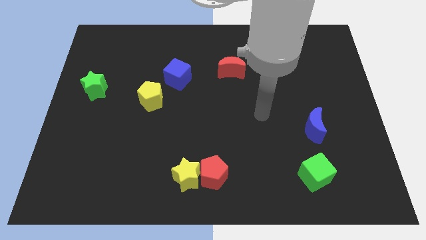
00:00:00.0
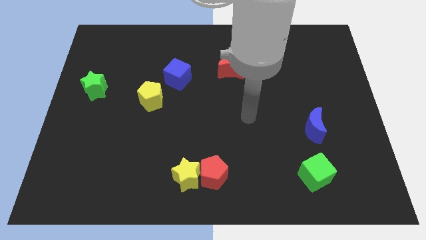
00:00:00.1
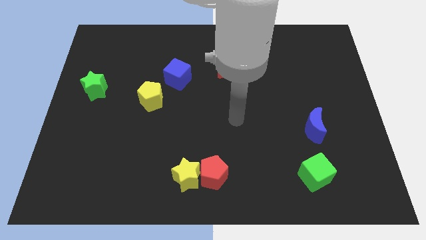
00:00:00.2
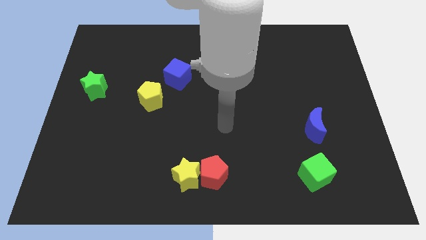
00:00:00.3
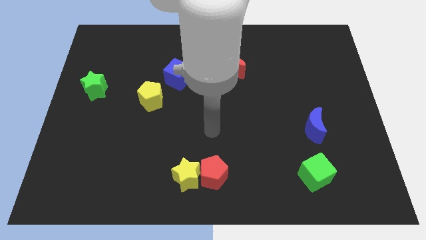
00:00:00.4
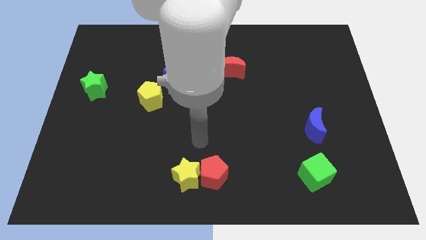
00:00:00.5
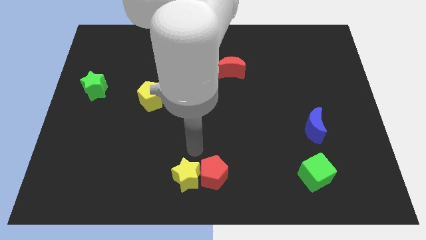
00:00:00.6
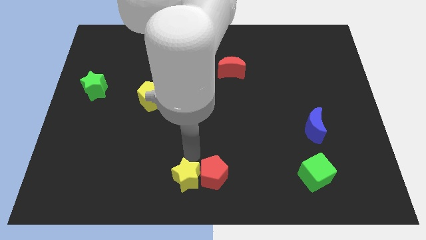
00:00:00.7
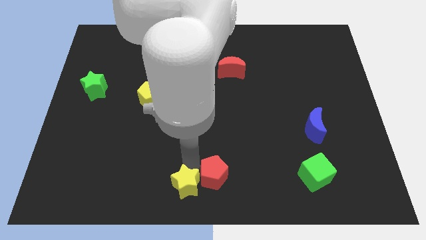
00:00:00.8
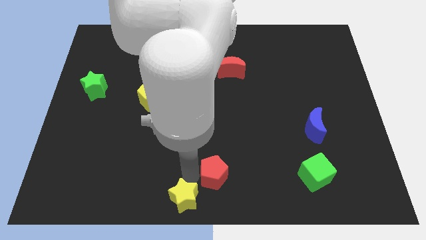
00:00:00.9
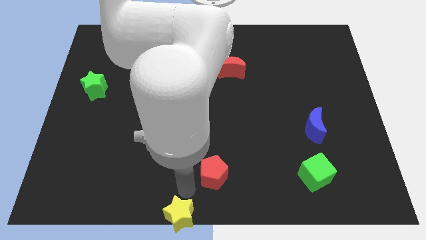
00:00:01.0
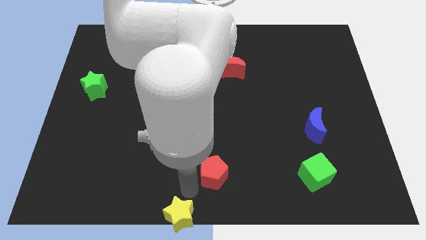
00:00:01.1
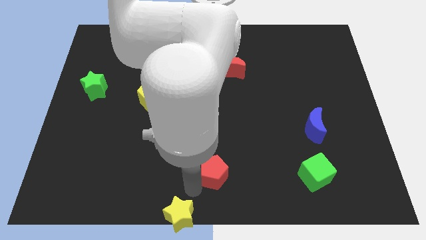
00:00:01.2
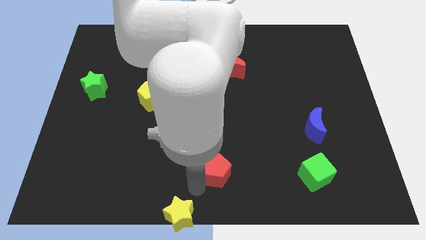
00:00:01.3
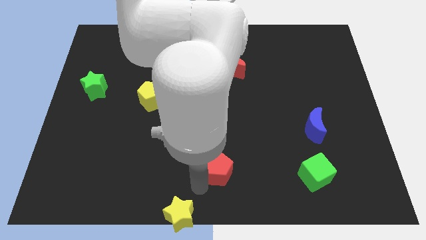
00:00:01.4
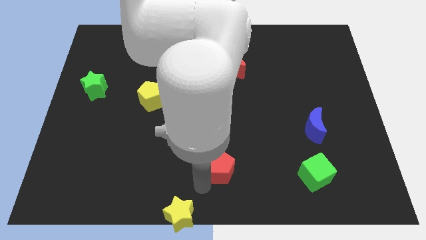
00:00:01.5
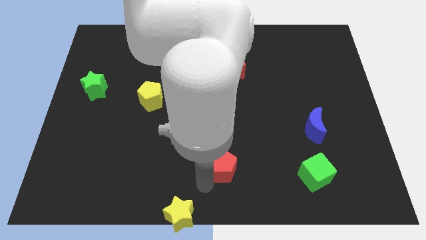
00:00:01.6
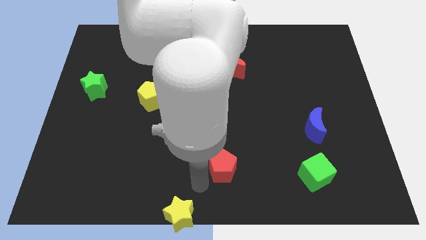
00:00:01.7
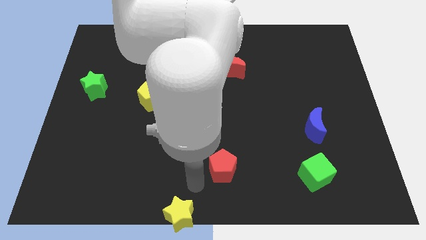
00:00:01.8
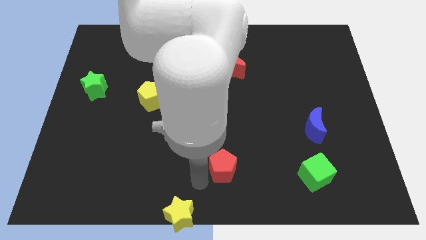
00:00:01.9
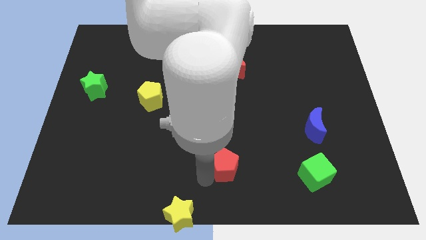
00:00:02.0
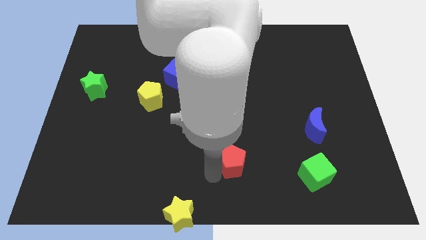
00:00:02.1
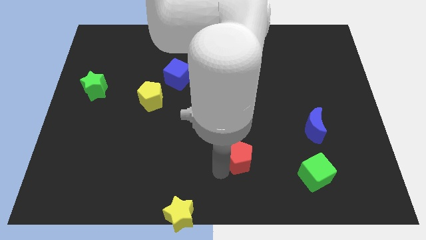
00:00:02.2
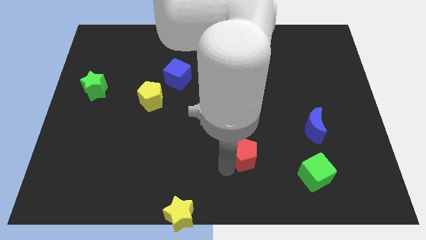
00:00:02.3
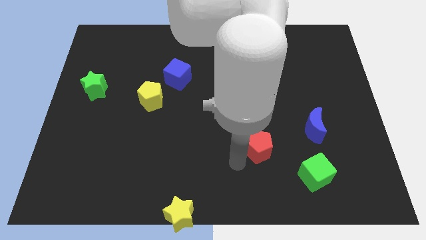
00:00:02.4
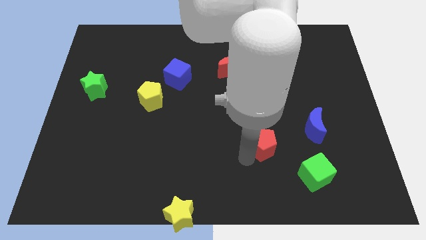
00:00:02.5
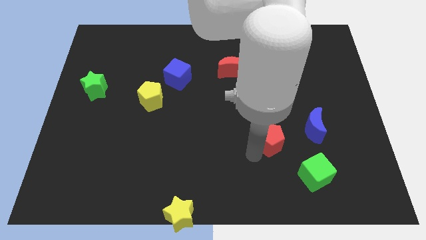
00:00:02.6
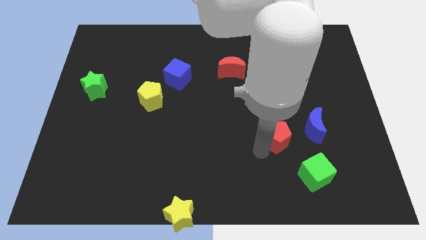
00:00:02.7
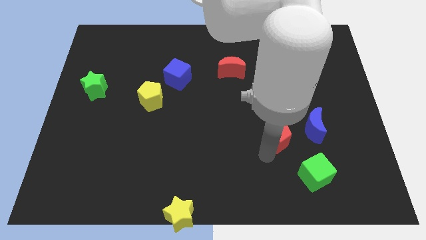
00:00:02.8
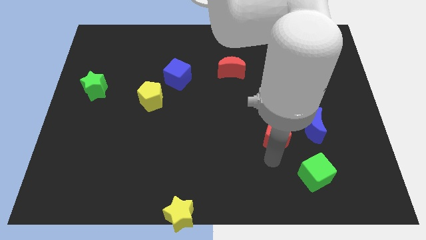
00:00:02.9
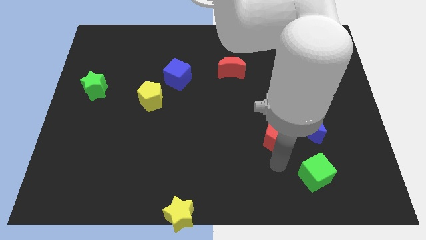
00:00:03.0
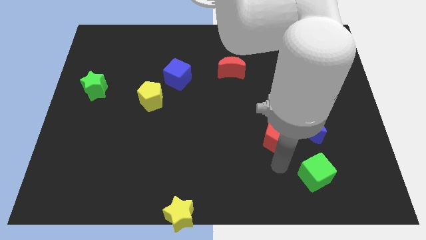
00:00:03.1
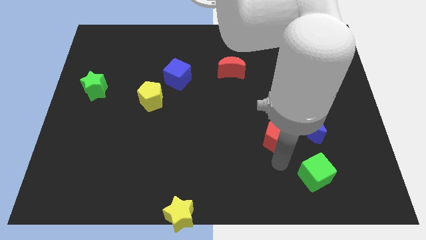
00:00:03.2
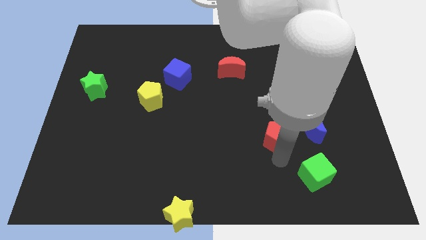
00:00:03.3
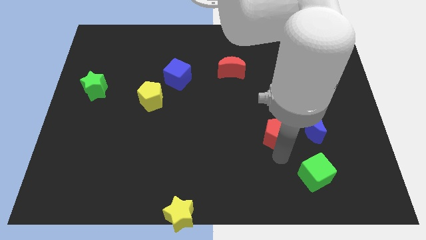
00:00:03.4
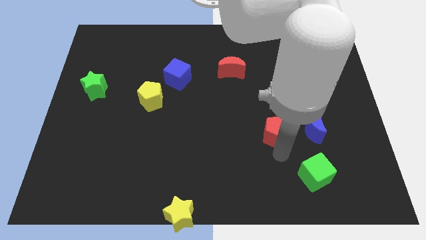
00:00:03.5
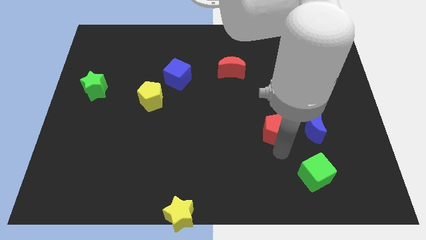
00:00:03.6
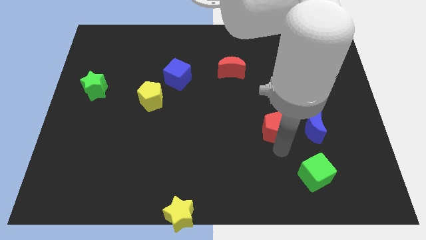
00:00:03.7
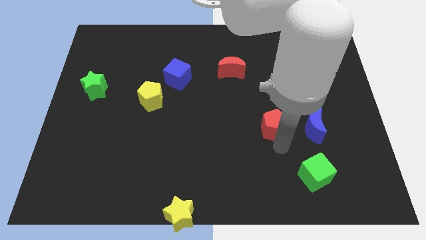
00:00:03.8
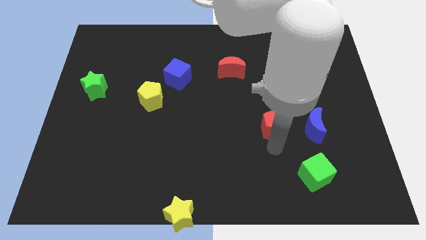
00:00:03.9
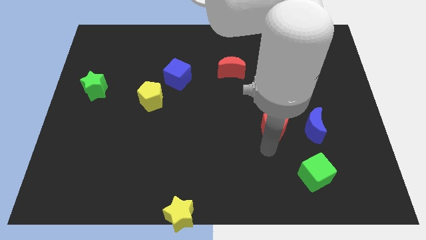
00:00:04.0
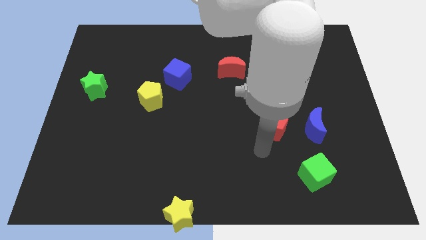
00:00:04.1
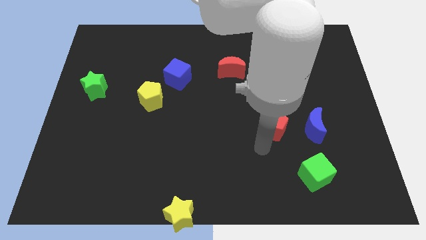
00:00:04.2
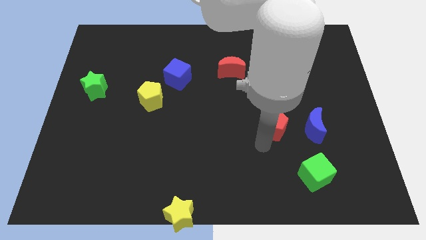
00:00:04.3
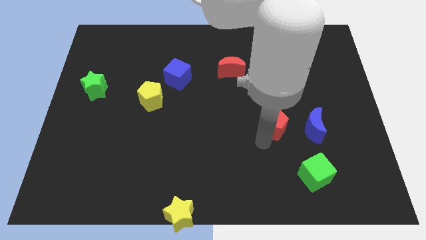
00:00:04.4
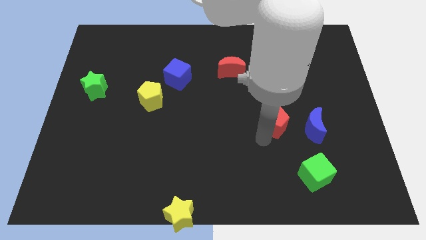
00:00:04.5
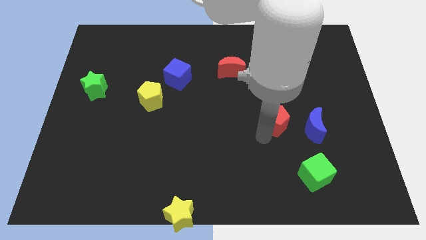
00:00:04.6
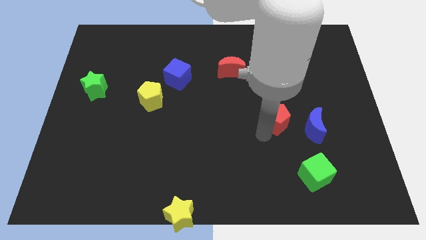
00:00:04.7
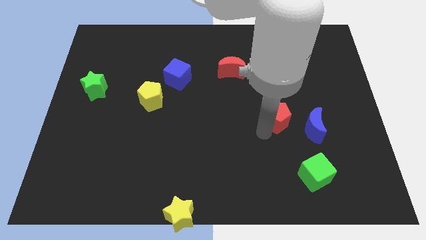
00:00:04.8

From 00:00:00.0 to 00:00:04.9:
move the red pentagon upwards and to the right

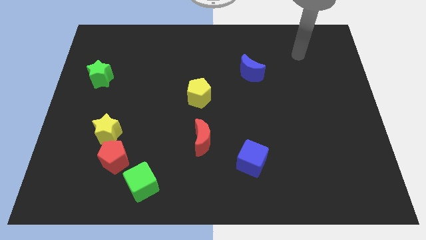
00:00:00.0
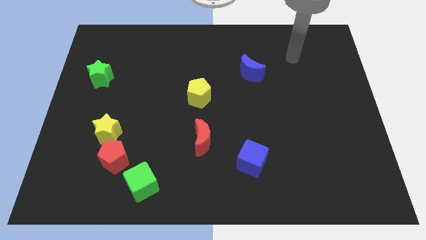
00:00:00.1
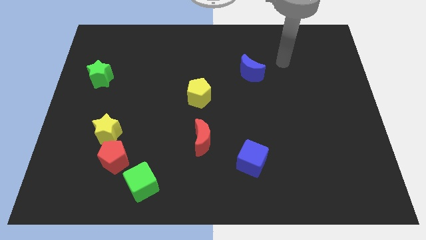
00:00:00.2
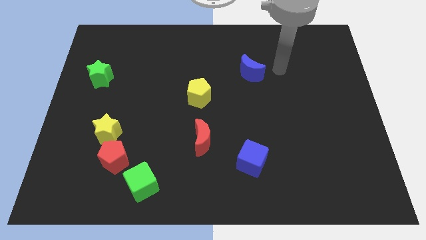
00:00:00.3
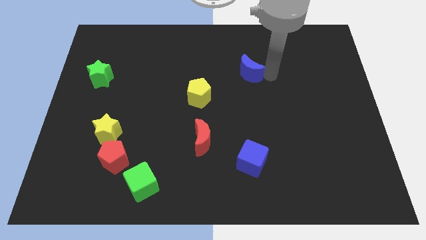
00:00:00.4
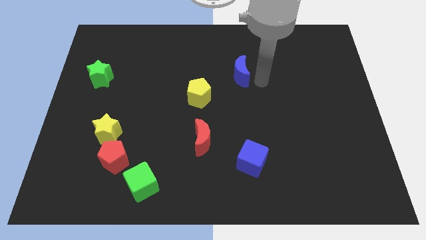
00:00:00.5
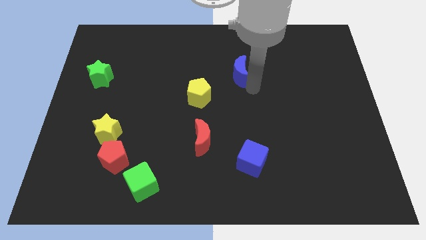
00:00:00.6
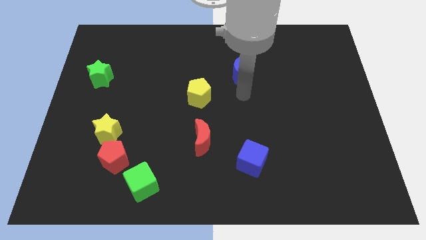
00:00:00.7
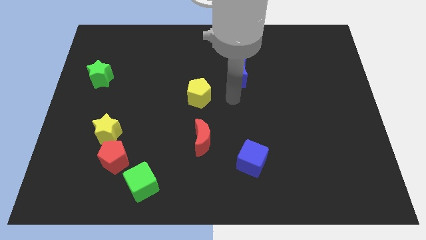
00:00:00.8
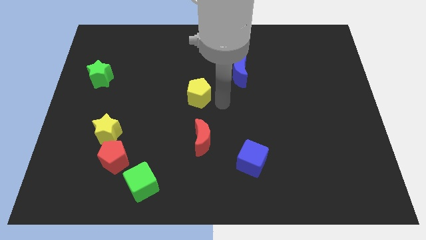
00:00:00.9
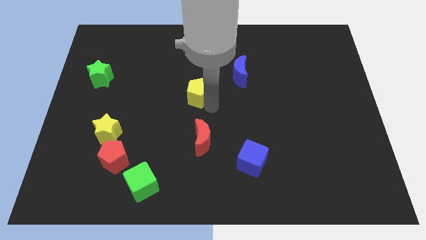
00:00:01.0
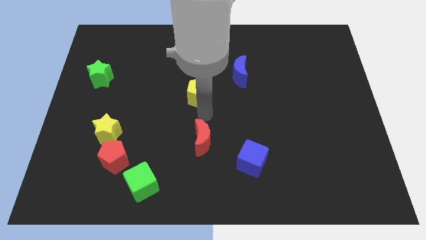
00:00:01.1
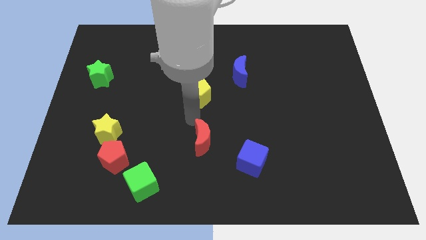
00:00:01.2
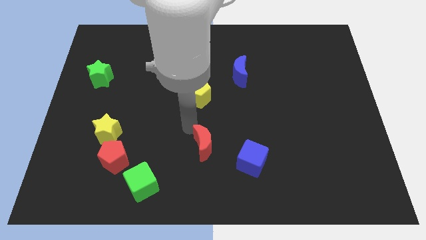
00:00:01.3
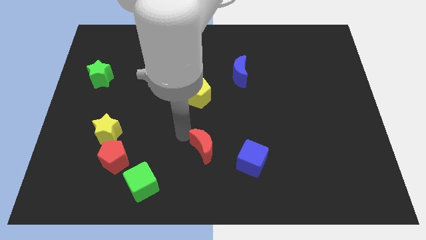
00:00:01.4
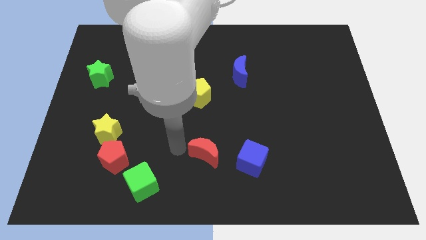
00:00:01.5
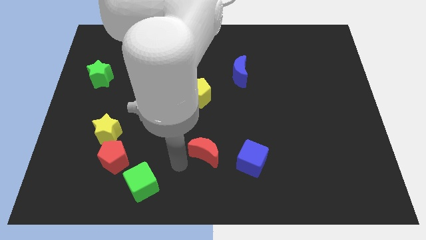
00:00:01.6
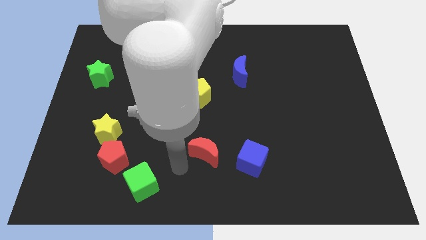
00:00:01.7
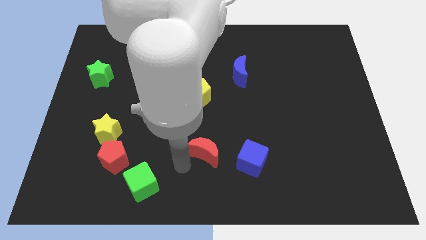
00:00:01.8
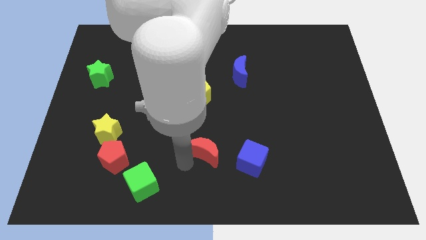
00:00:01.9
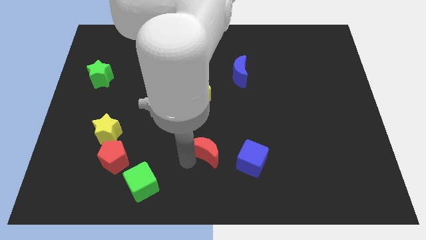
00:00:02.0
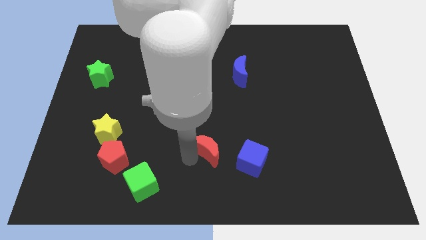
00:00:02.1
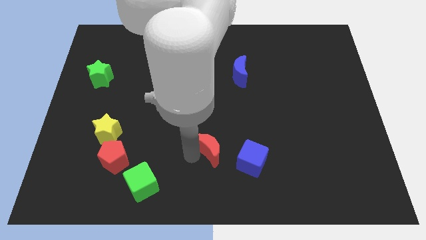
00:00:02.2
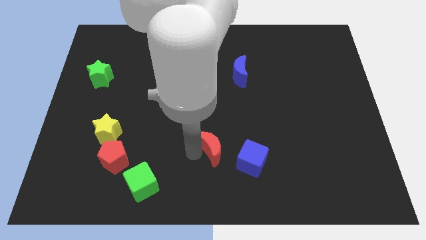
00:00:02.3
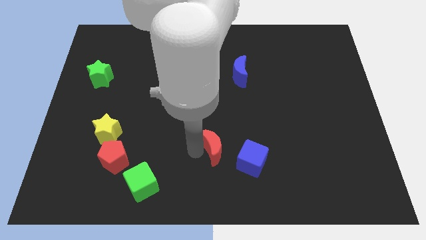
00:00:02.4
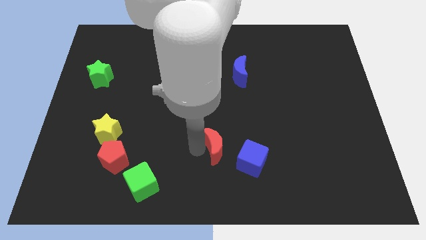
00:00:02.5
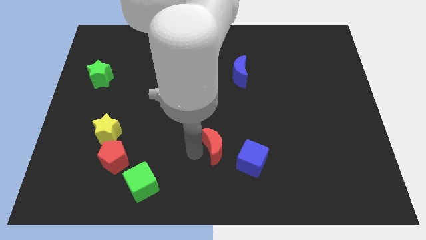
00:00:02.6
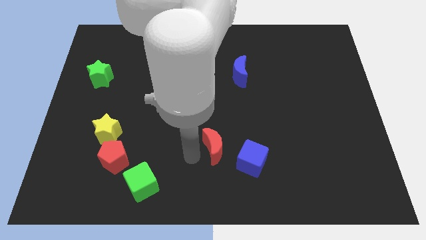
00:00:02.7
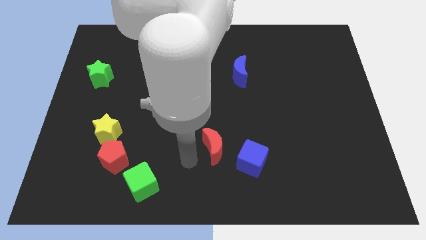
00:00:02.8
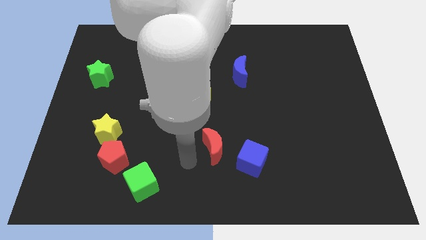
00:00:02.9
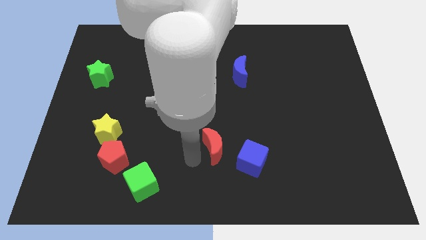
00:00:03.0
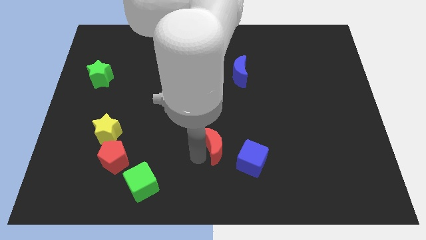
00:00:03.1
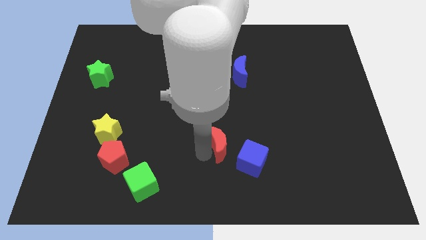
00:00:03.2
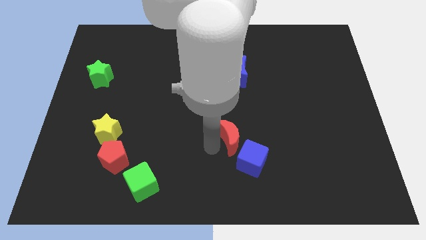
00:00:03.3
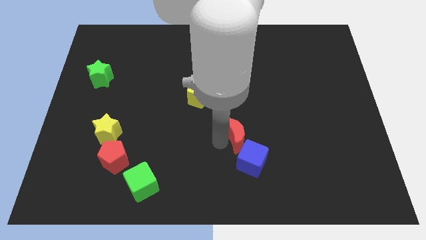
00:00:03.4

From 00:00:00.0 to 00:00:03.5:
push the red moon a little bit right
